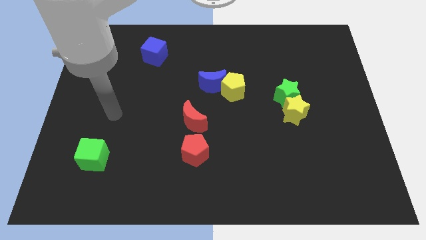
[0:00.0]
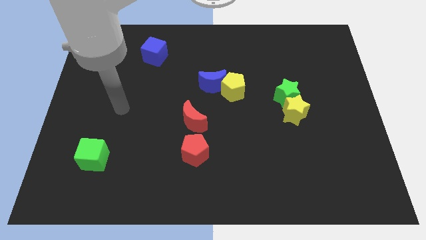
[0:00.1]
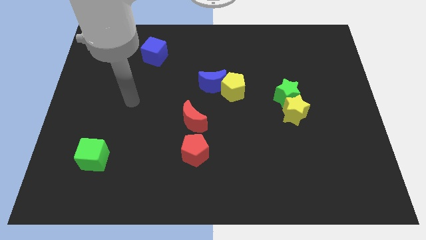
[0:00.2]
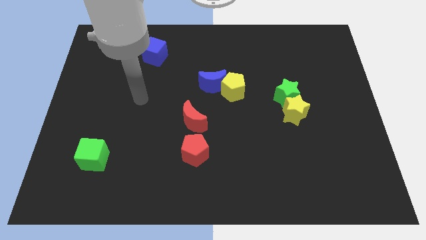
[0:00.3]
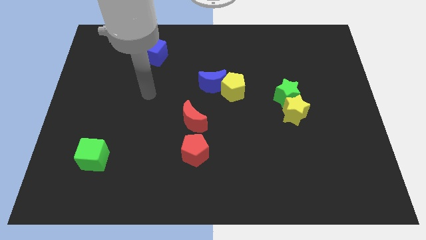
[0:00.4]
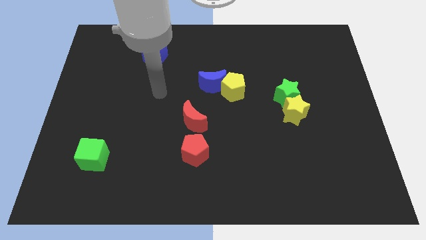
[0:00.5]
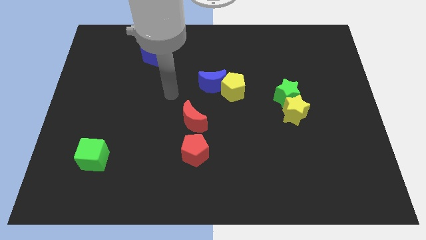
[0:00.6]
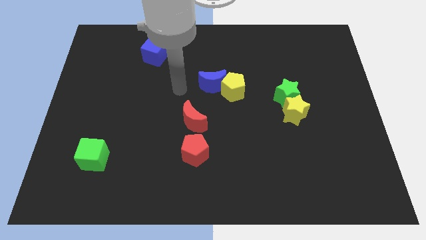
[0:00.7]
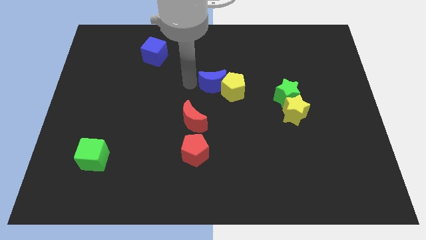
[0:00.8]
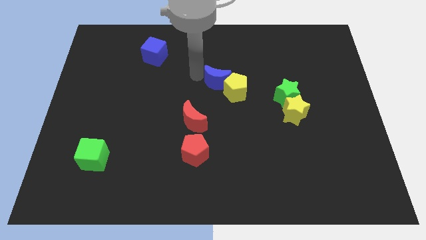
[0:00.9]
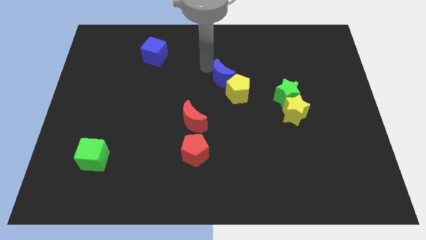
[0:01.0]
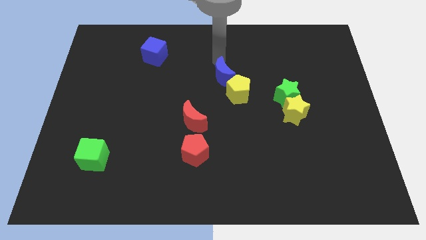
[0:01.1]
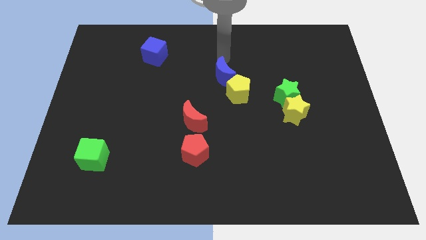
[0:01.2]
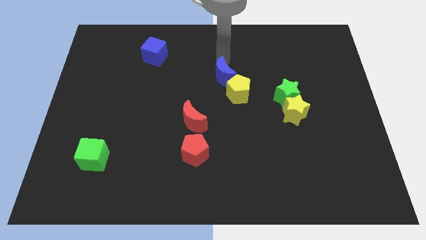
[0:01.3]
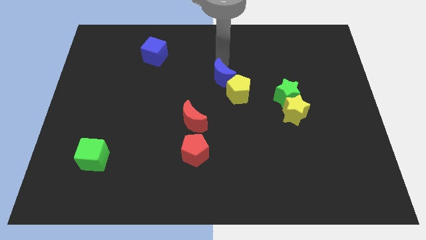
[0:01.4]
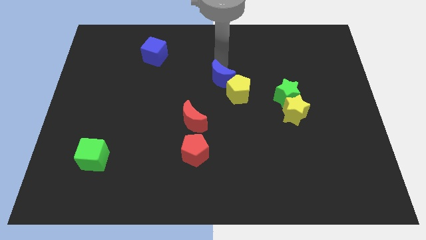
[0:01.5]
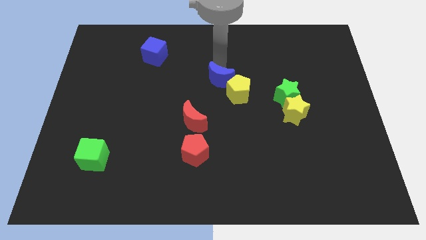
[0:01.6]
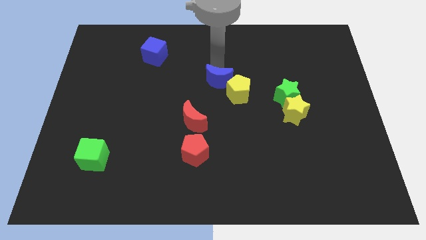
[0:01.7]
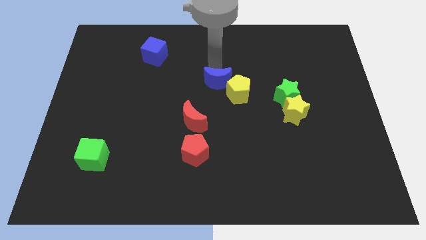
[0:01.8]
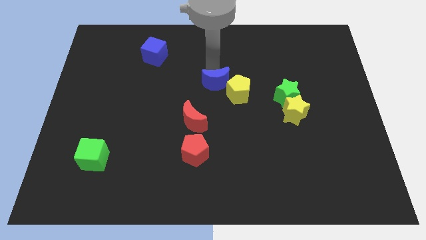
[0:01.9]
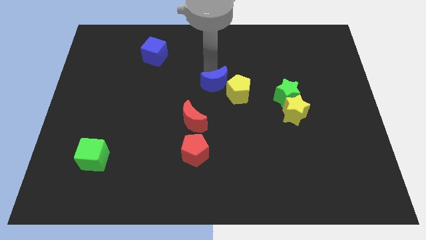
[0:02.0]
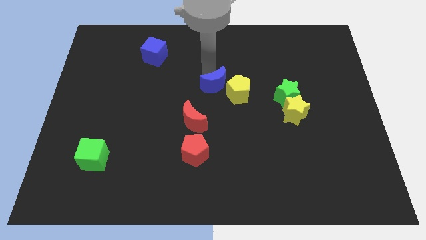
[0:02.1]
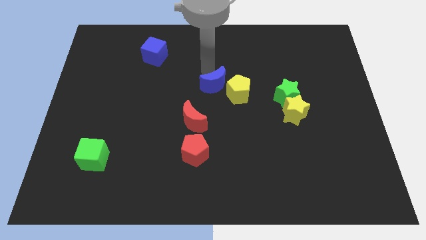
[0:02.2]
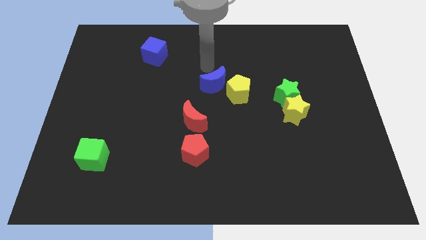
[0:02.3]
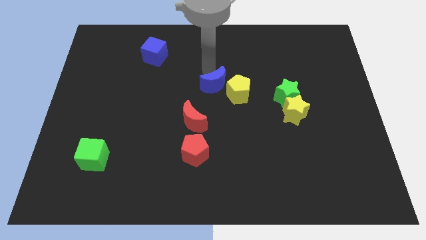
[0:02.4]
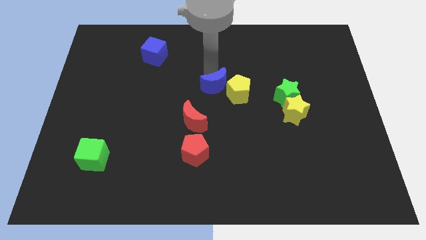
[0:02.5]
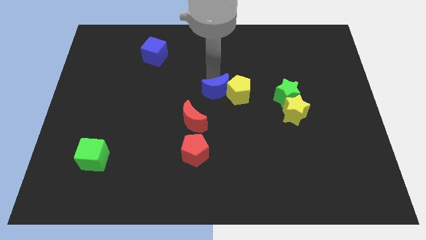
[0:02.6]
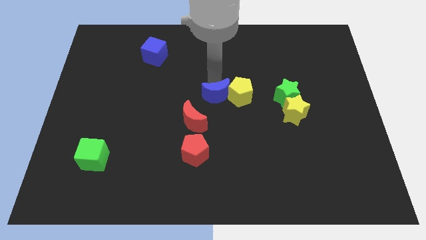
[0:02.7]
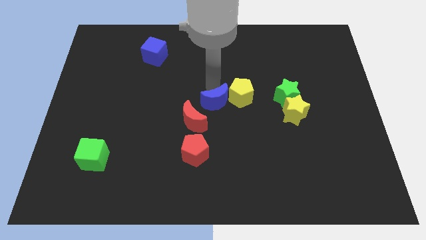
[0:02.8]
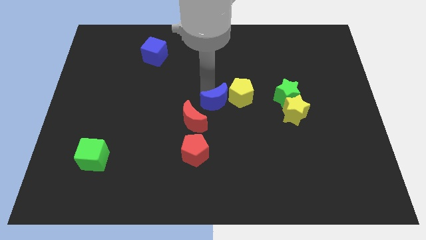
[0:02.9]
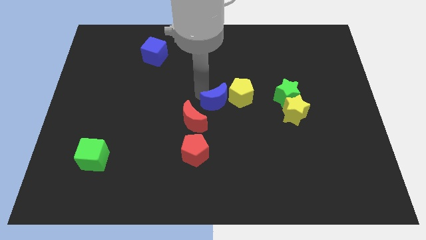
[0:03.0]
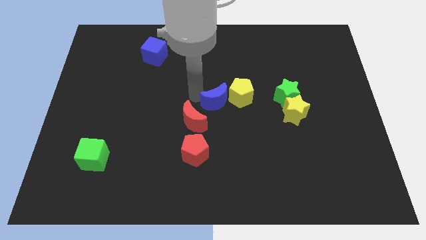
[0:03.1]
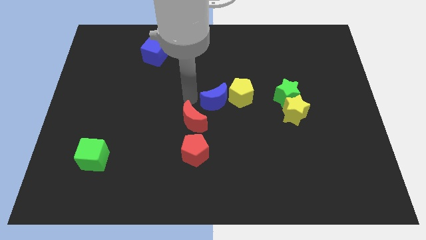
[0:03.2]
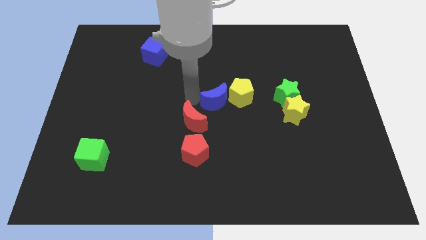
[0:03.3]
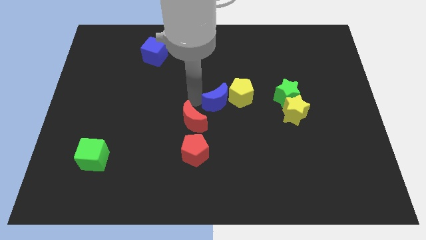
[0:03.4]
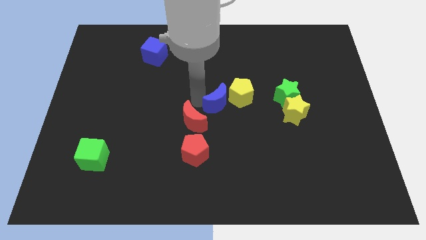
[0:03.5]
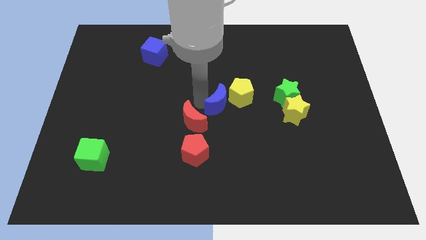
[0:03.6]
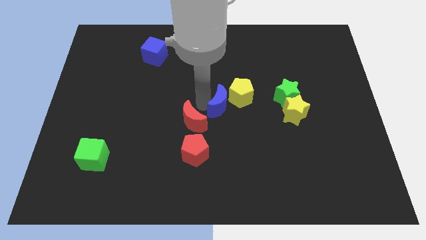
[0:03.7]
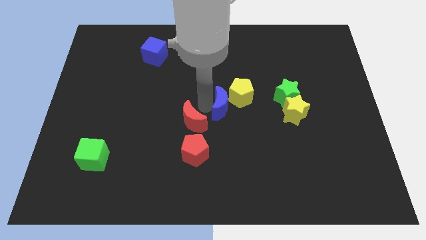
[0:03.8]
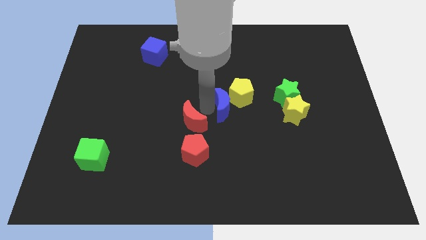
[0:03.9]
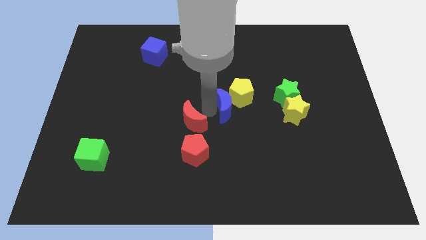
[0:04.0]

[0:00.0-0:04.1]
slide the blue moon downwards and to the right diagonally somewhat

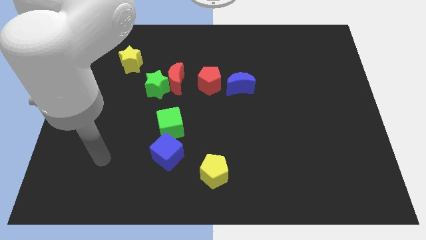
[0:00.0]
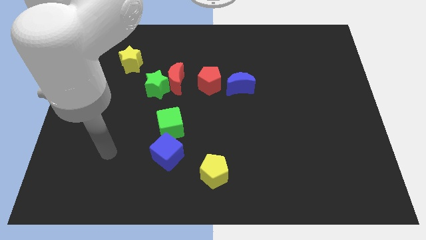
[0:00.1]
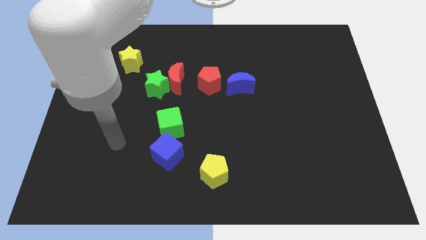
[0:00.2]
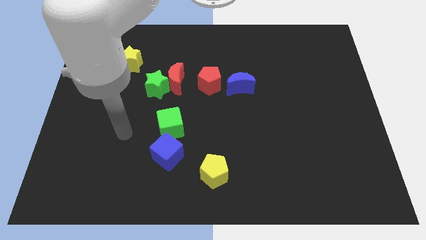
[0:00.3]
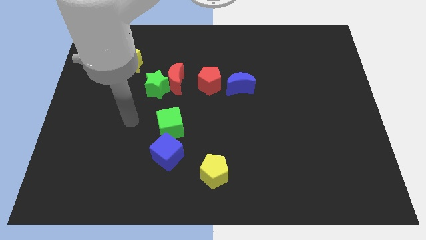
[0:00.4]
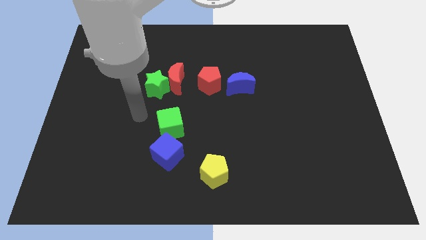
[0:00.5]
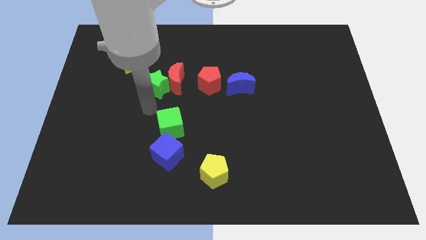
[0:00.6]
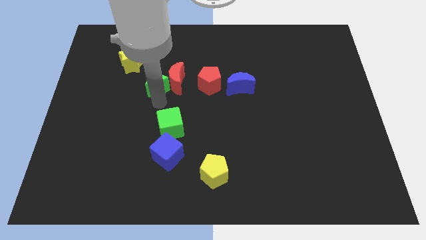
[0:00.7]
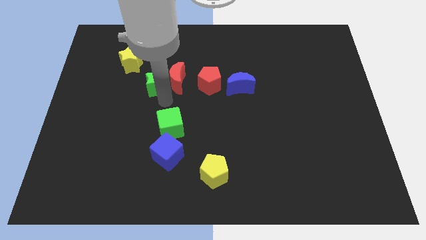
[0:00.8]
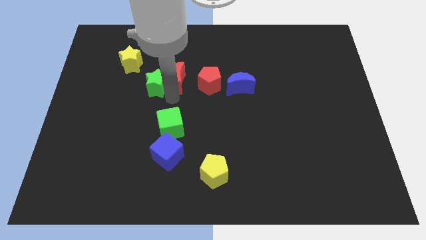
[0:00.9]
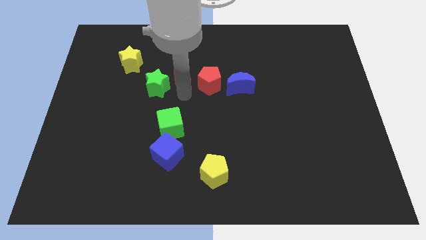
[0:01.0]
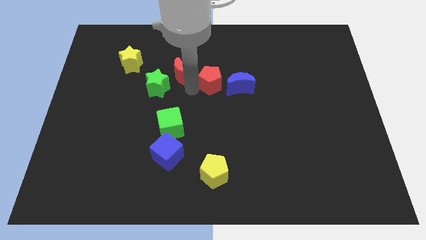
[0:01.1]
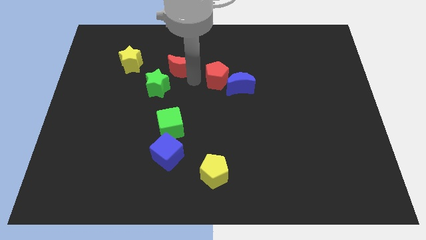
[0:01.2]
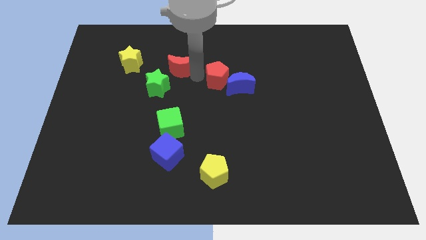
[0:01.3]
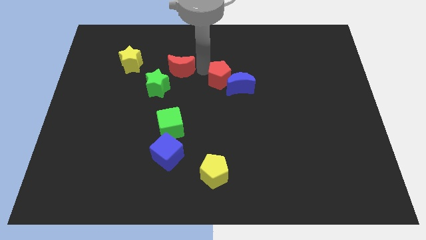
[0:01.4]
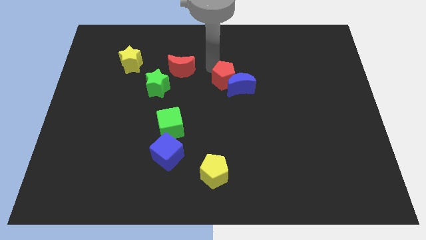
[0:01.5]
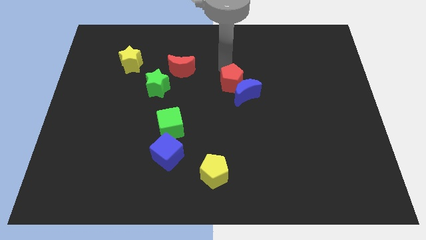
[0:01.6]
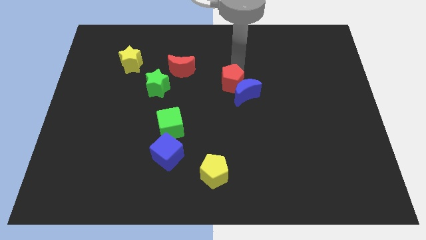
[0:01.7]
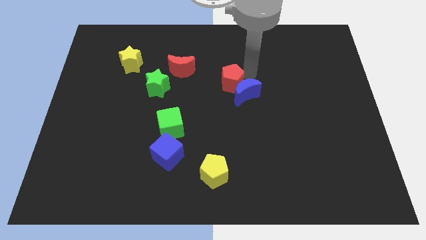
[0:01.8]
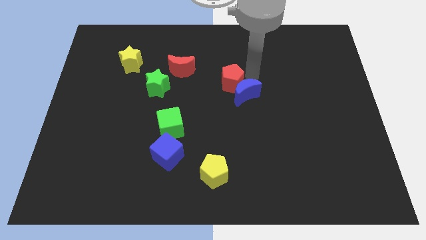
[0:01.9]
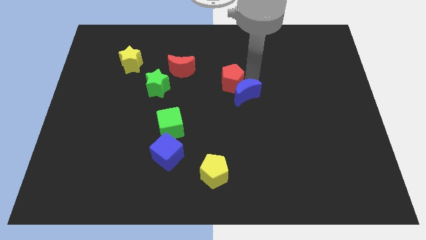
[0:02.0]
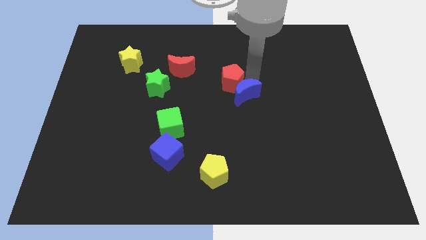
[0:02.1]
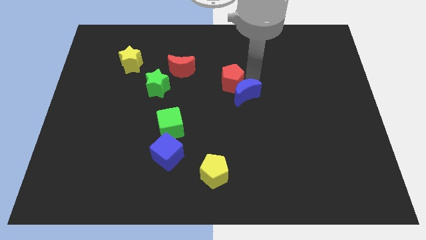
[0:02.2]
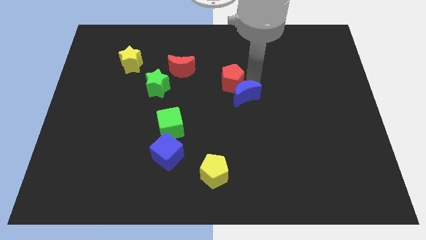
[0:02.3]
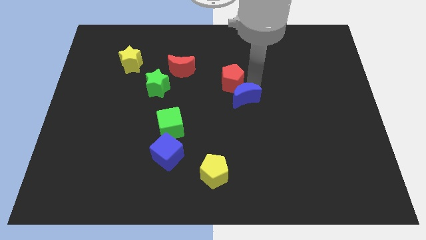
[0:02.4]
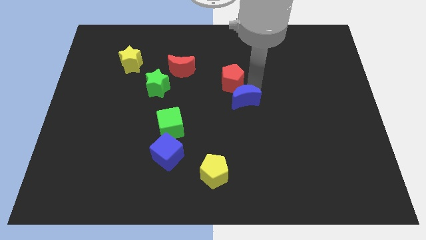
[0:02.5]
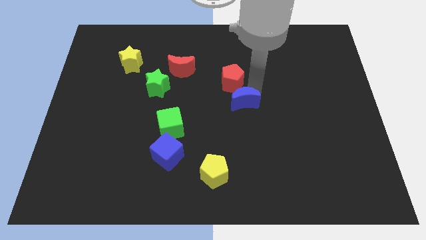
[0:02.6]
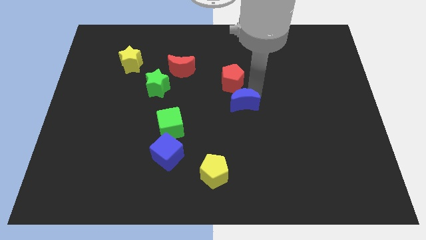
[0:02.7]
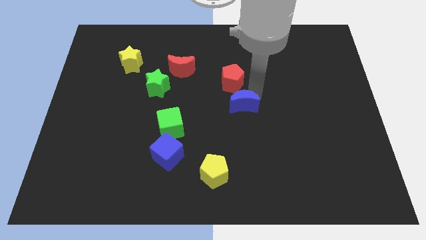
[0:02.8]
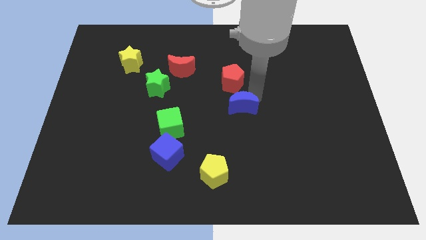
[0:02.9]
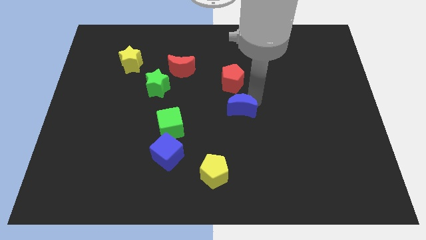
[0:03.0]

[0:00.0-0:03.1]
slightly move the blue moon down

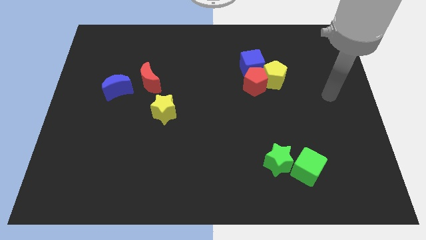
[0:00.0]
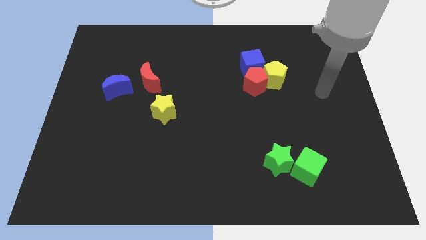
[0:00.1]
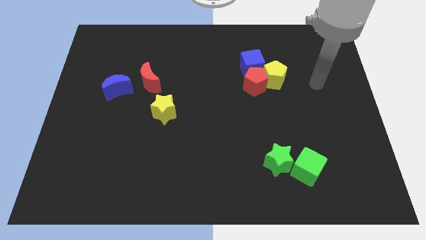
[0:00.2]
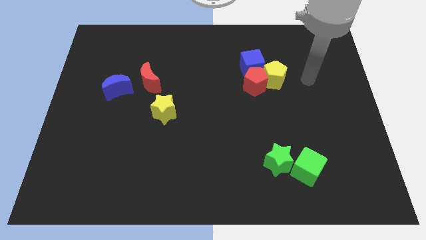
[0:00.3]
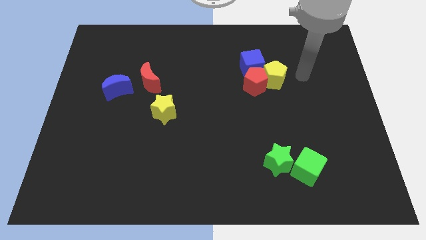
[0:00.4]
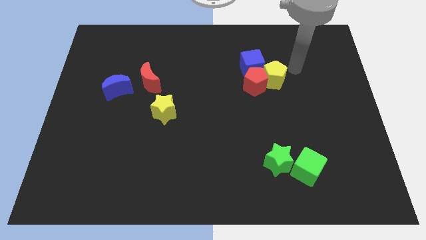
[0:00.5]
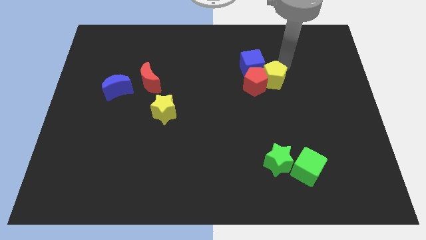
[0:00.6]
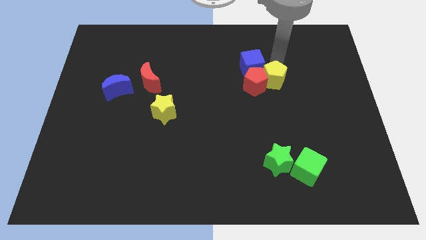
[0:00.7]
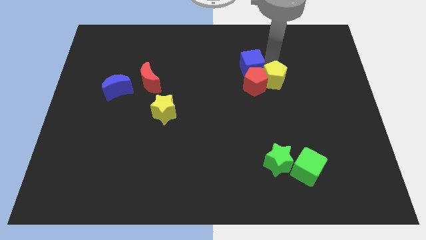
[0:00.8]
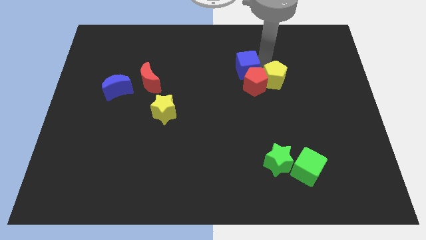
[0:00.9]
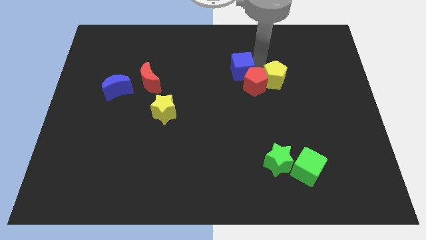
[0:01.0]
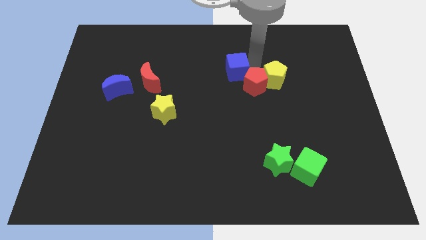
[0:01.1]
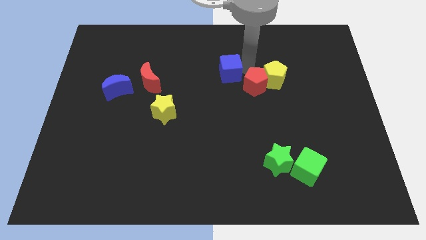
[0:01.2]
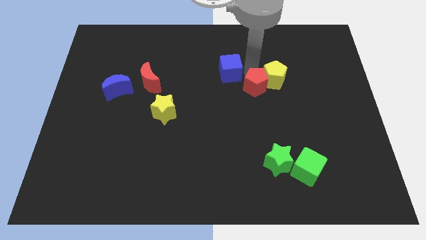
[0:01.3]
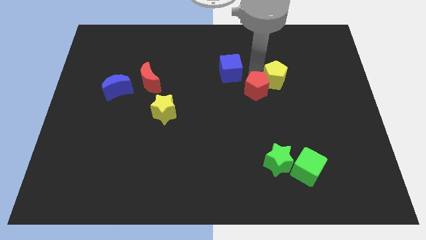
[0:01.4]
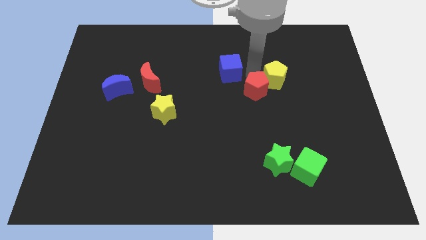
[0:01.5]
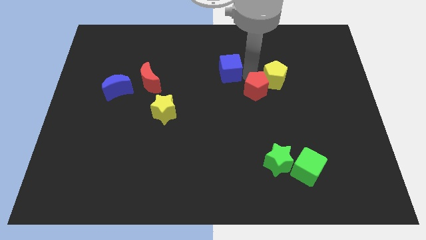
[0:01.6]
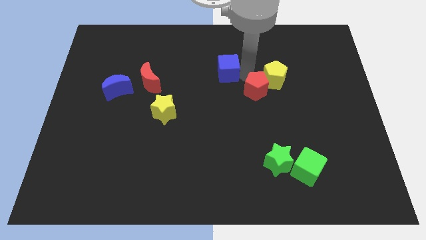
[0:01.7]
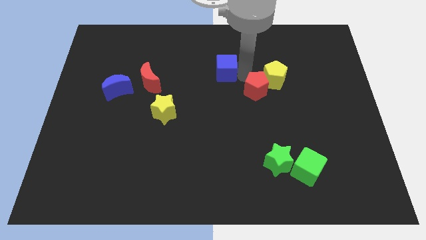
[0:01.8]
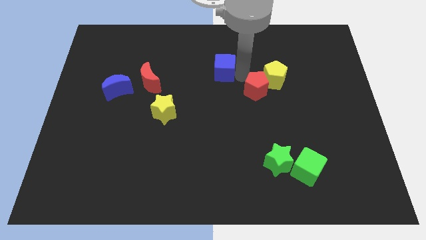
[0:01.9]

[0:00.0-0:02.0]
push the blue cube a little bit to the left
